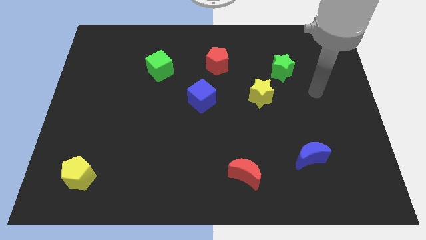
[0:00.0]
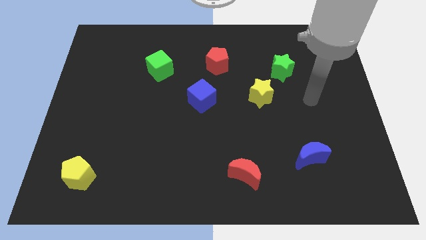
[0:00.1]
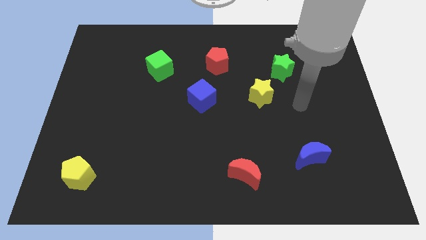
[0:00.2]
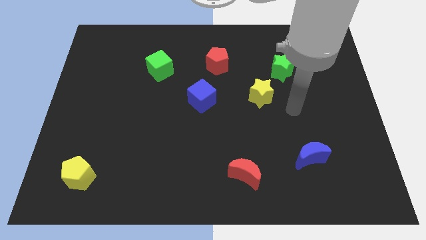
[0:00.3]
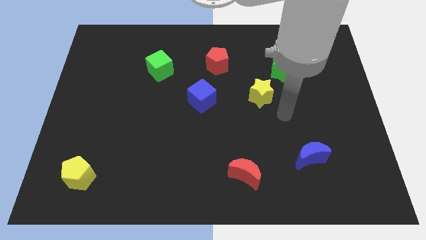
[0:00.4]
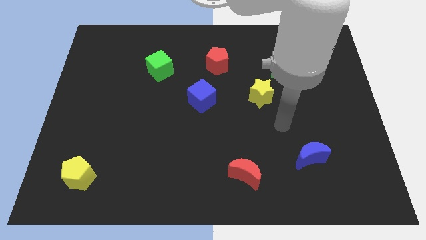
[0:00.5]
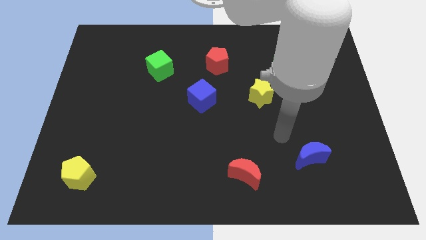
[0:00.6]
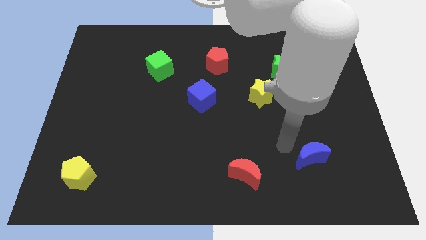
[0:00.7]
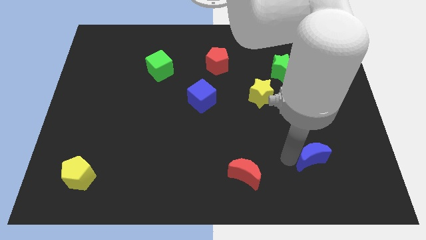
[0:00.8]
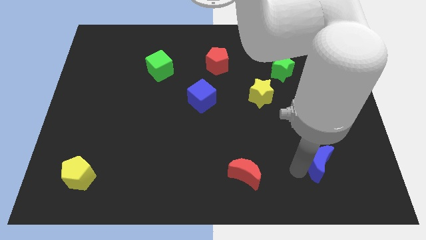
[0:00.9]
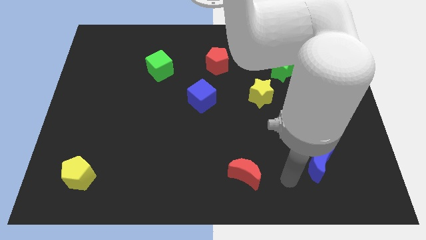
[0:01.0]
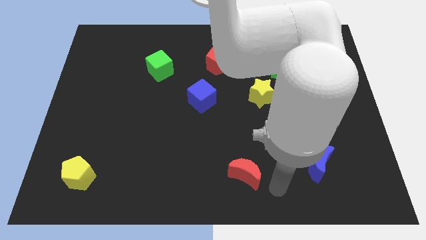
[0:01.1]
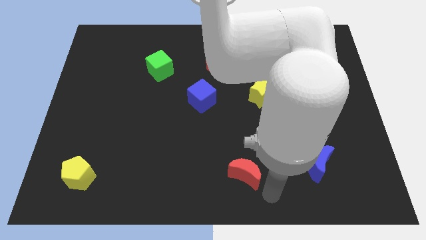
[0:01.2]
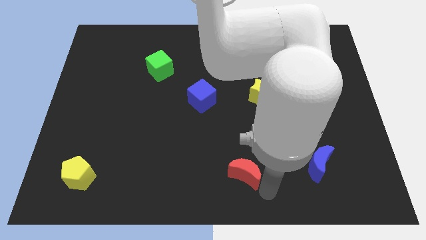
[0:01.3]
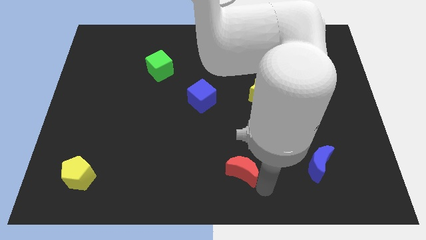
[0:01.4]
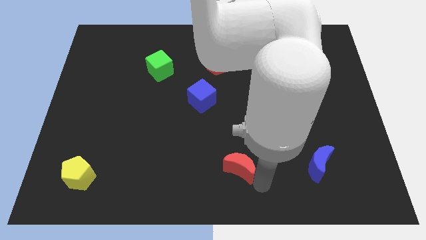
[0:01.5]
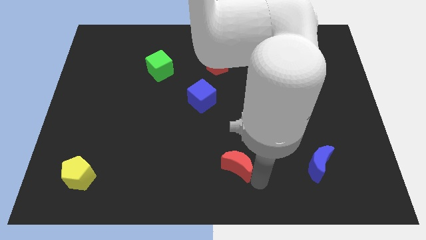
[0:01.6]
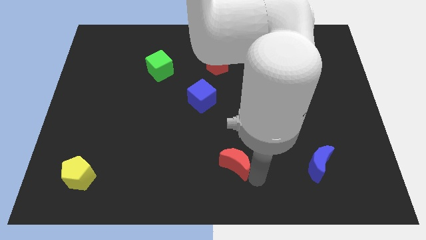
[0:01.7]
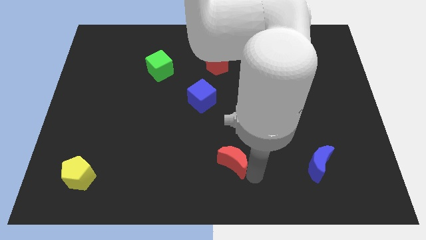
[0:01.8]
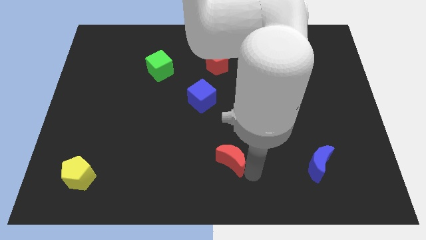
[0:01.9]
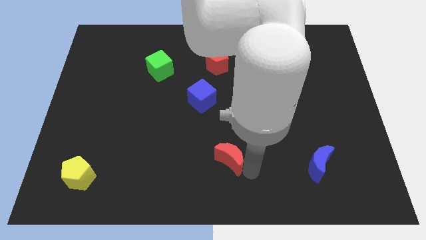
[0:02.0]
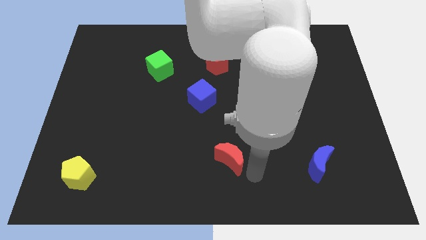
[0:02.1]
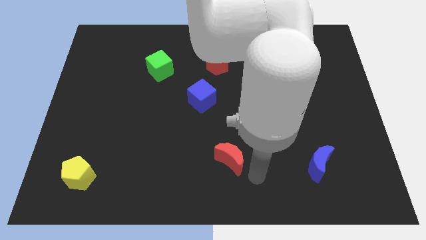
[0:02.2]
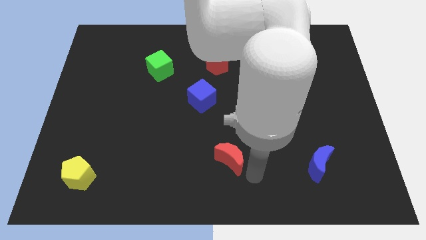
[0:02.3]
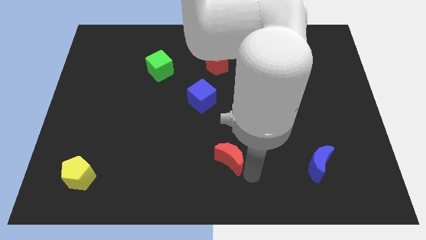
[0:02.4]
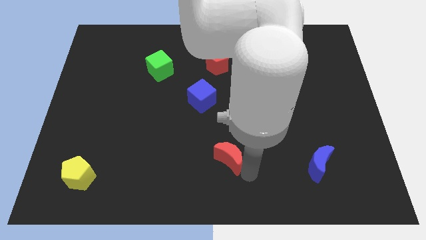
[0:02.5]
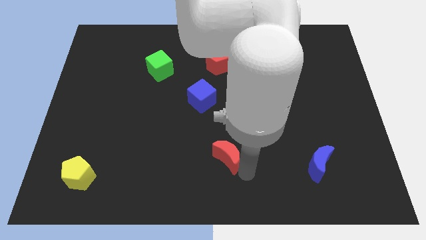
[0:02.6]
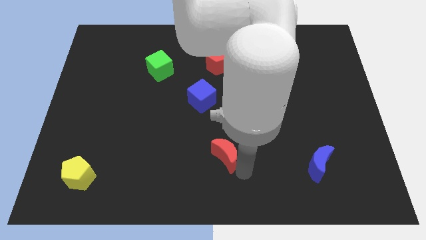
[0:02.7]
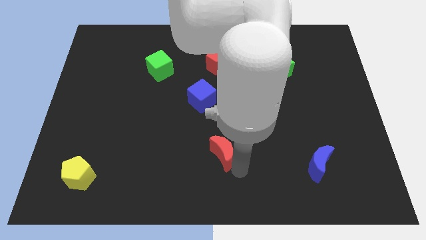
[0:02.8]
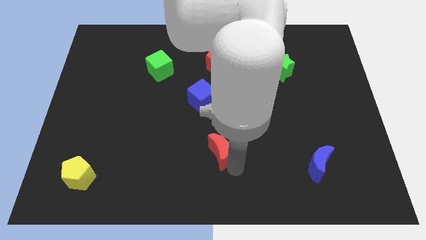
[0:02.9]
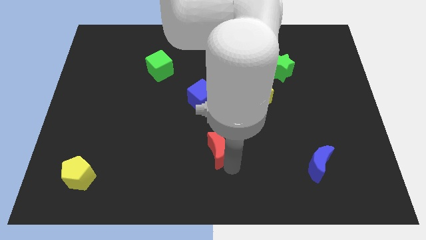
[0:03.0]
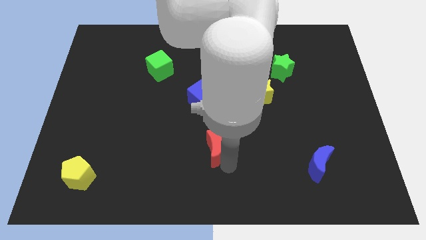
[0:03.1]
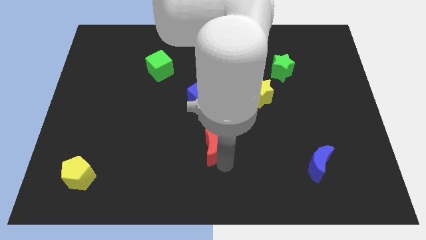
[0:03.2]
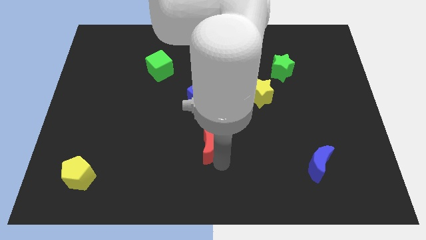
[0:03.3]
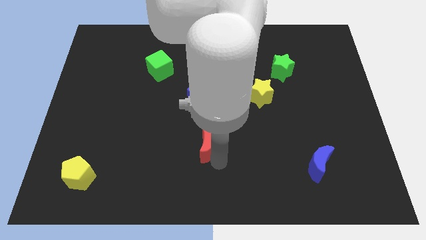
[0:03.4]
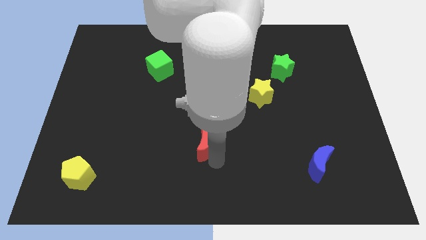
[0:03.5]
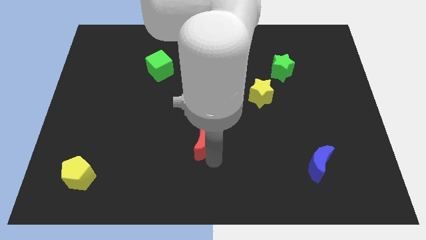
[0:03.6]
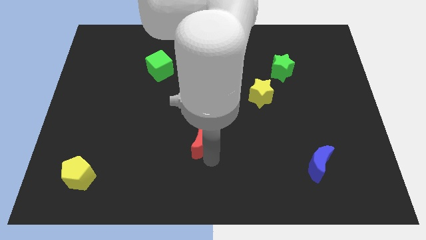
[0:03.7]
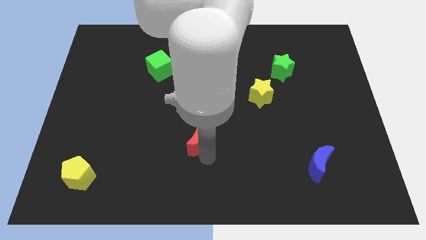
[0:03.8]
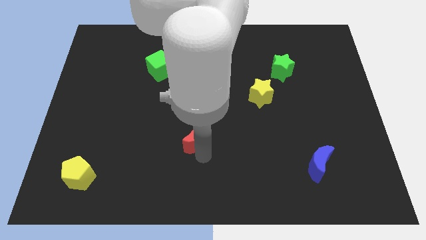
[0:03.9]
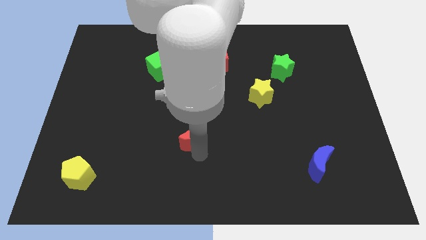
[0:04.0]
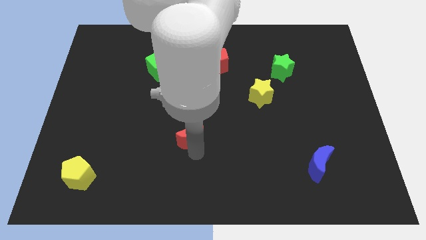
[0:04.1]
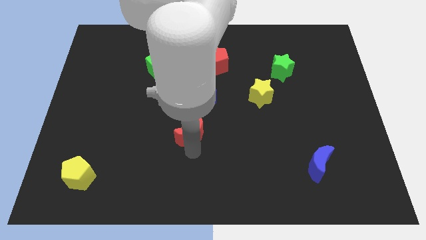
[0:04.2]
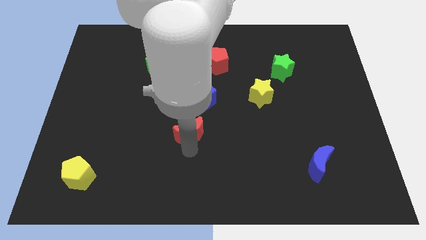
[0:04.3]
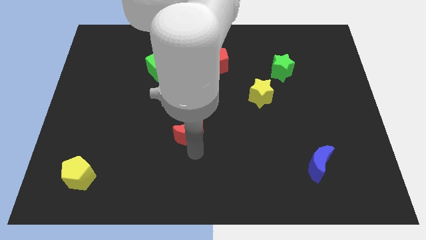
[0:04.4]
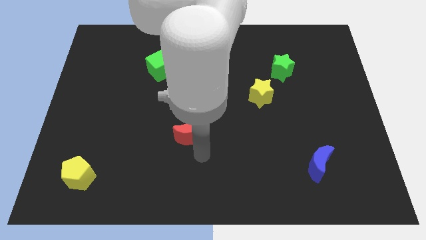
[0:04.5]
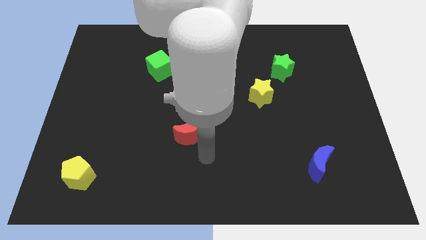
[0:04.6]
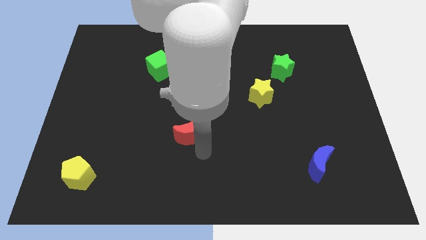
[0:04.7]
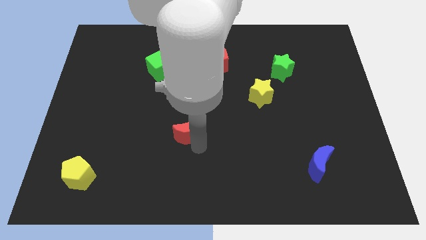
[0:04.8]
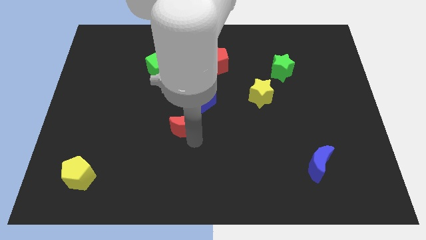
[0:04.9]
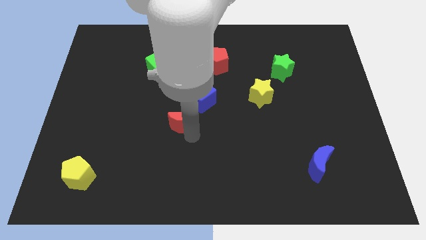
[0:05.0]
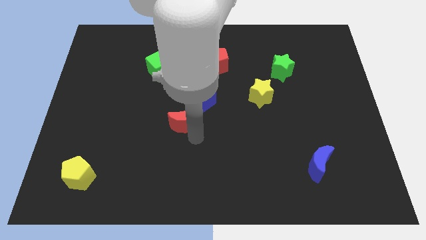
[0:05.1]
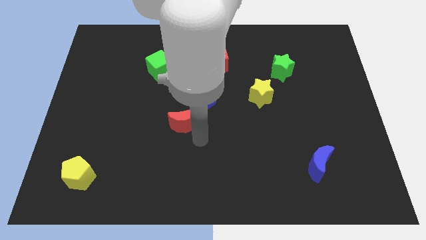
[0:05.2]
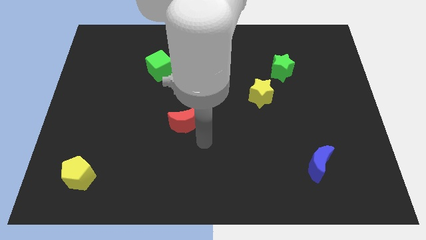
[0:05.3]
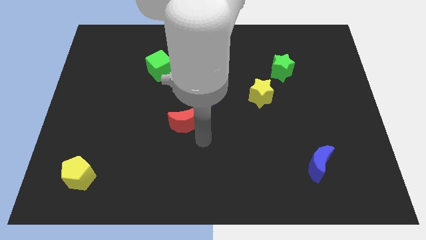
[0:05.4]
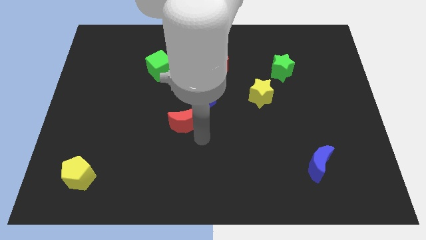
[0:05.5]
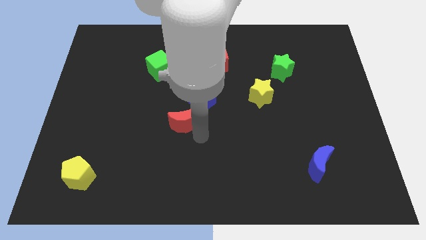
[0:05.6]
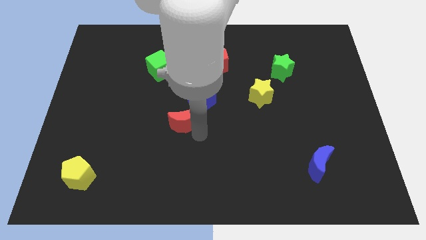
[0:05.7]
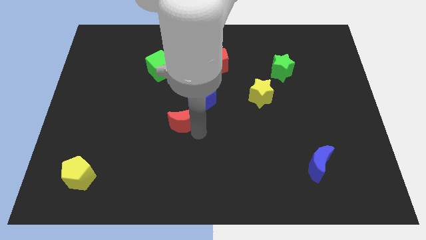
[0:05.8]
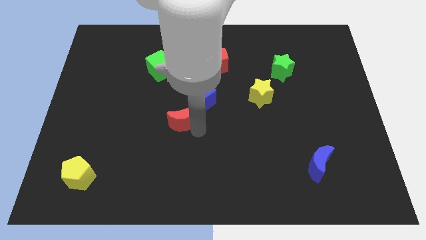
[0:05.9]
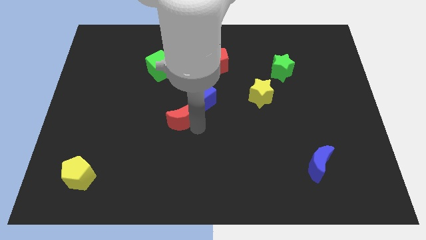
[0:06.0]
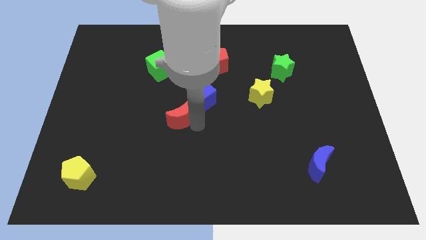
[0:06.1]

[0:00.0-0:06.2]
push the red moon upwards and left diagonally

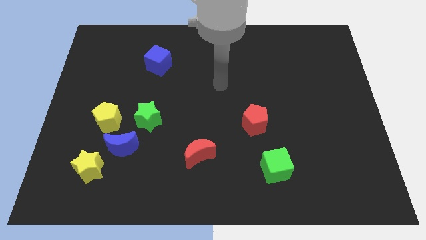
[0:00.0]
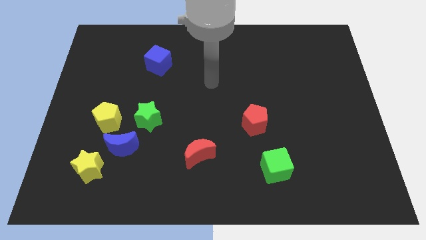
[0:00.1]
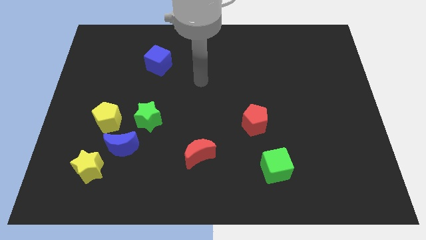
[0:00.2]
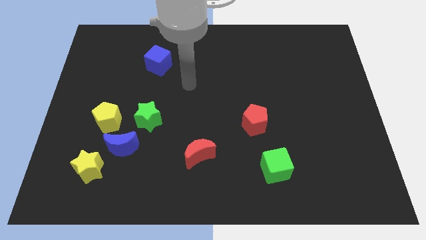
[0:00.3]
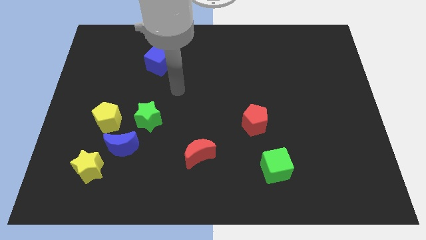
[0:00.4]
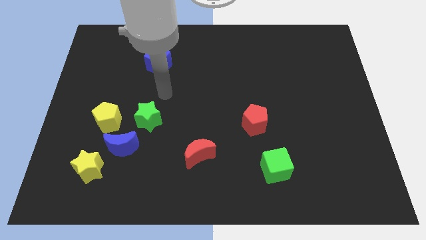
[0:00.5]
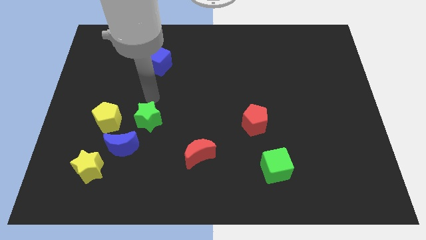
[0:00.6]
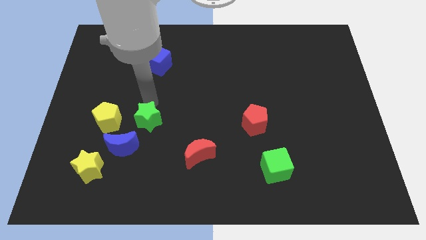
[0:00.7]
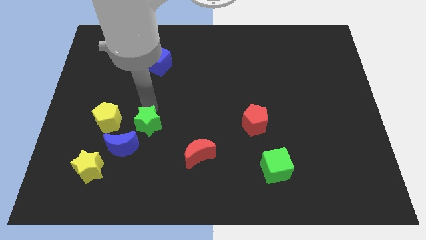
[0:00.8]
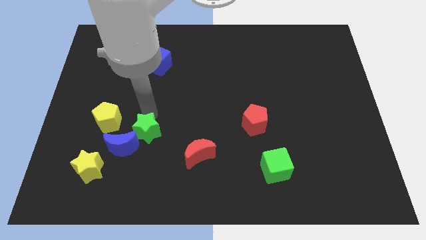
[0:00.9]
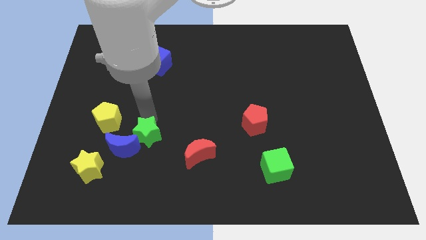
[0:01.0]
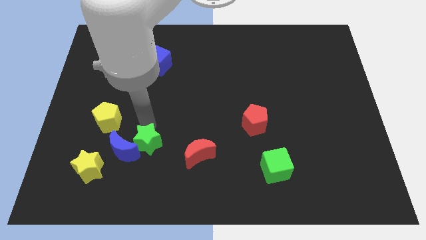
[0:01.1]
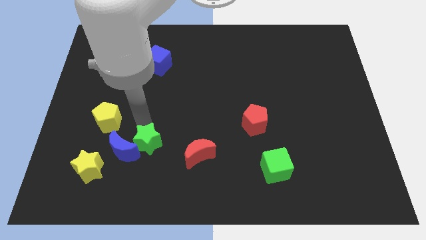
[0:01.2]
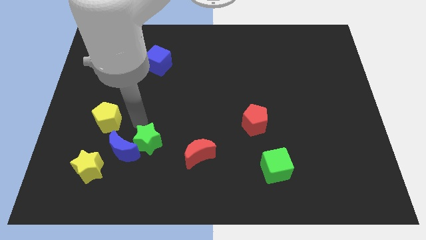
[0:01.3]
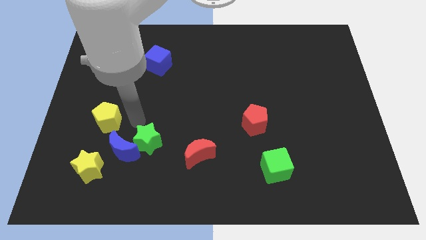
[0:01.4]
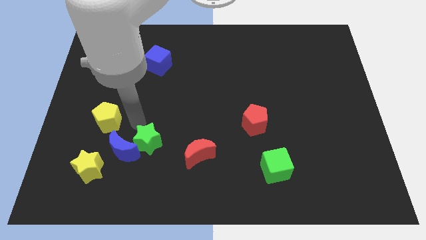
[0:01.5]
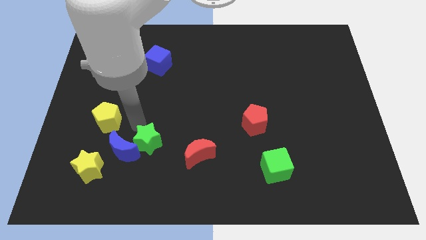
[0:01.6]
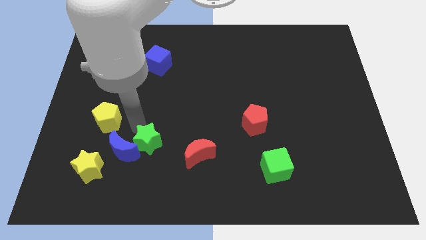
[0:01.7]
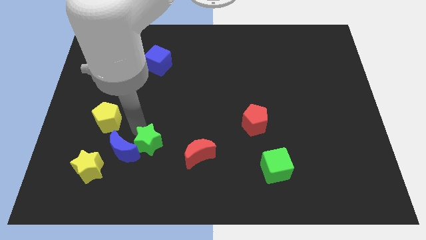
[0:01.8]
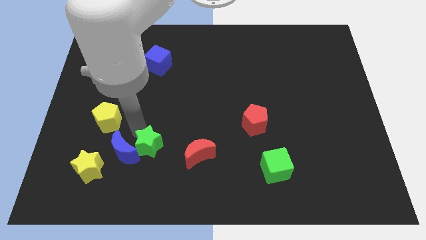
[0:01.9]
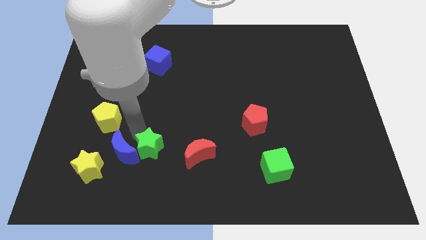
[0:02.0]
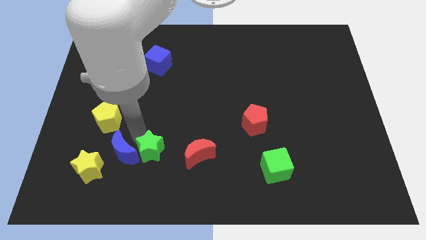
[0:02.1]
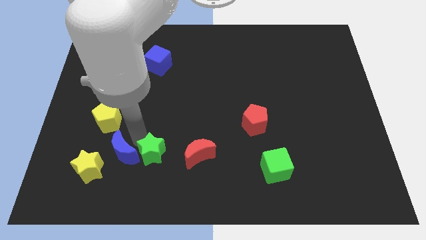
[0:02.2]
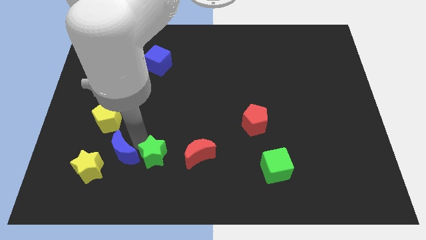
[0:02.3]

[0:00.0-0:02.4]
slide the green star down and then right somewhat
